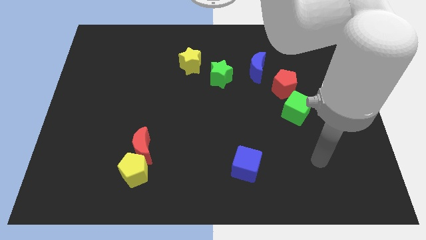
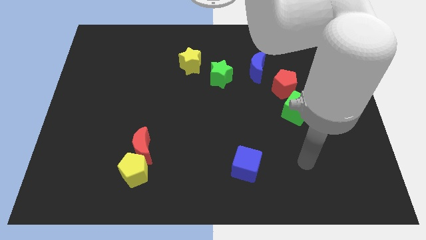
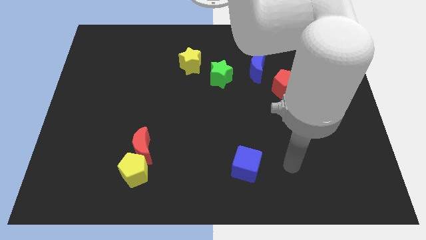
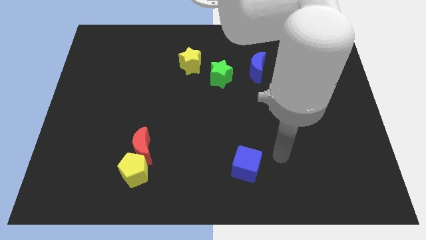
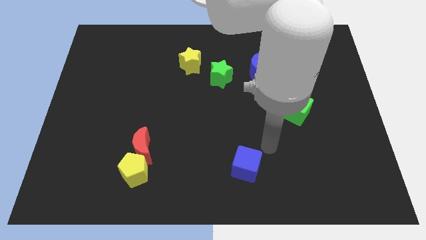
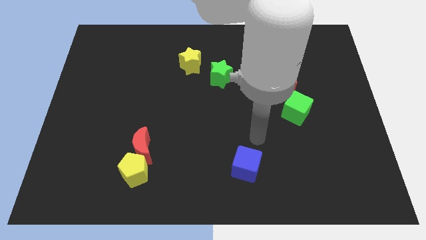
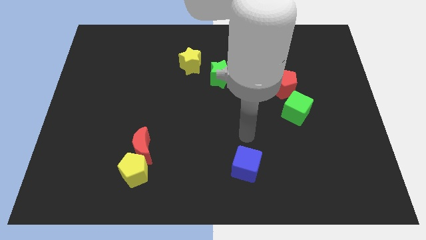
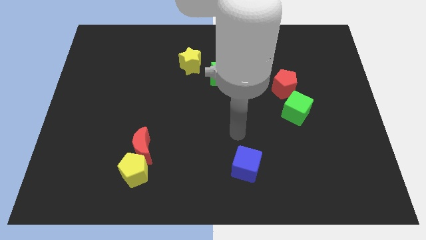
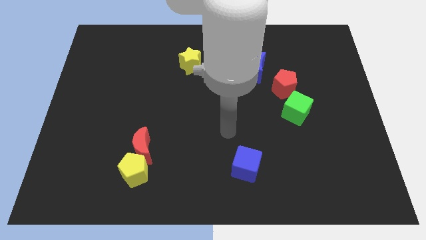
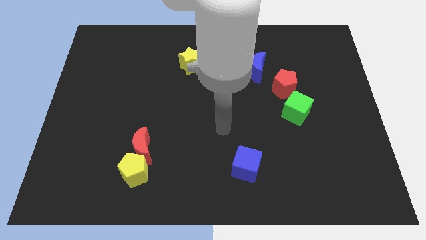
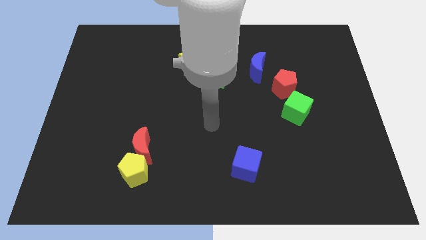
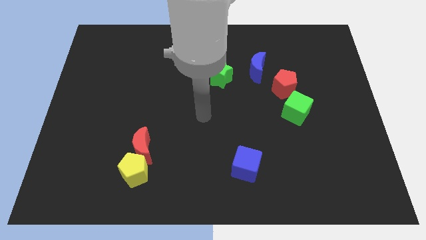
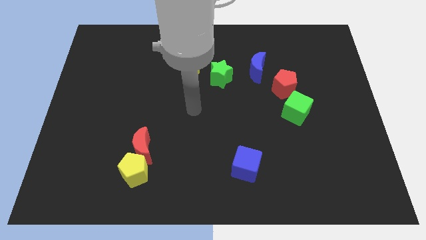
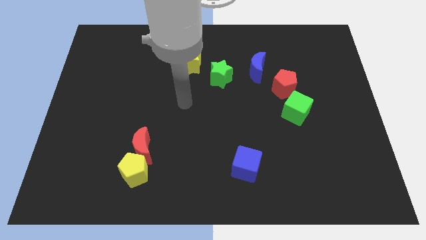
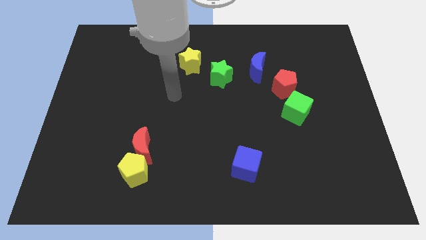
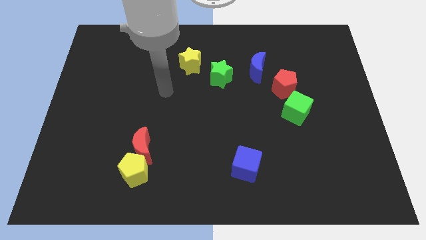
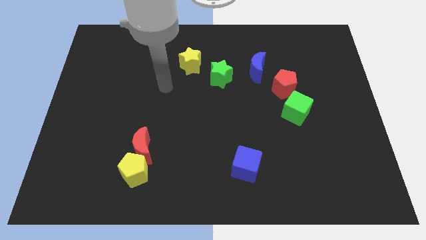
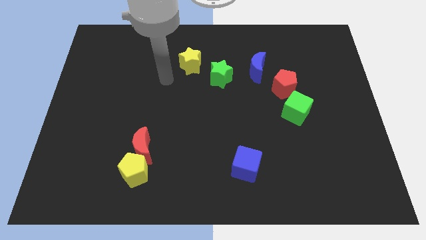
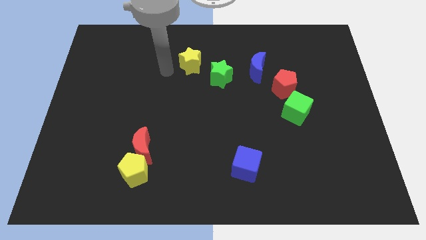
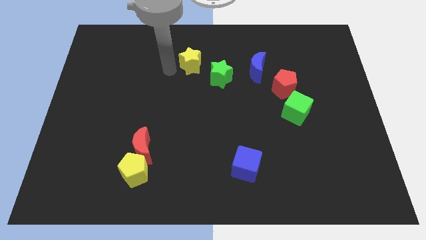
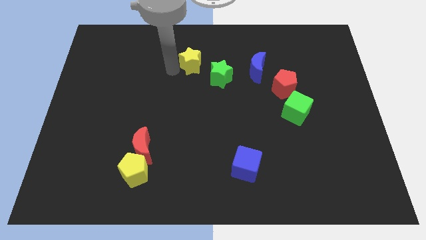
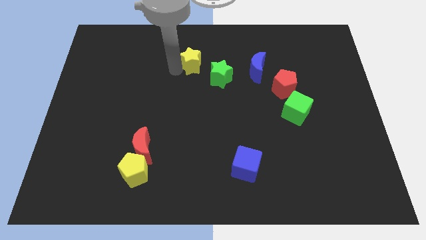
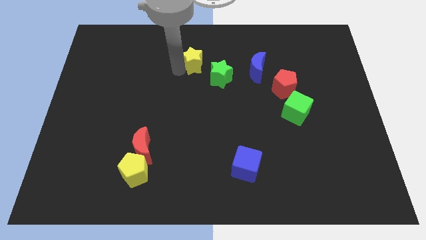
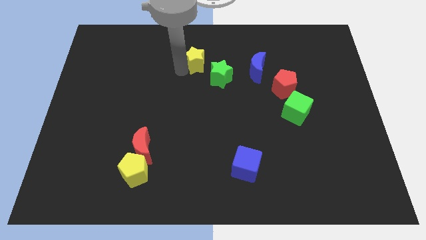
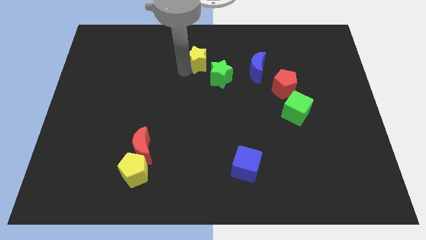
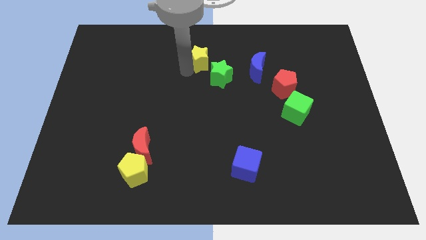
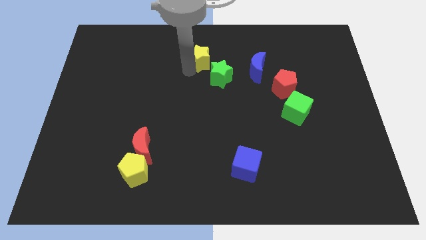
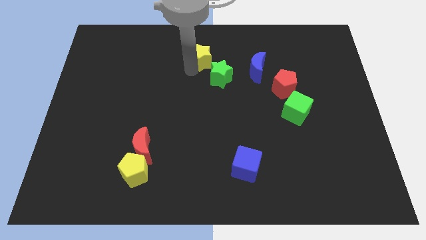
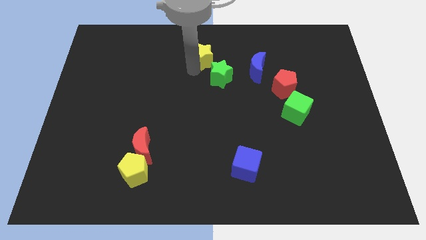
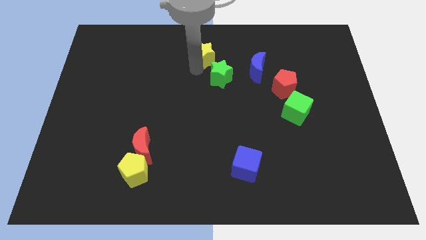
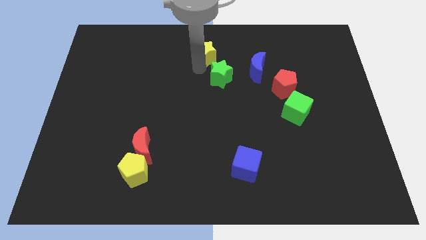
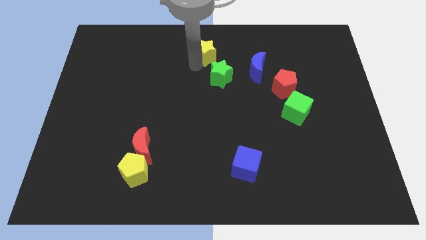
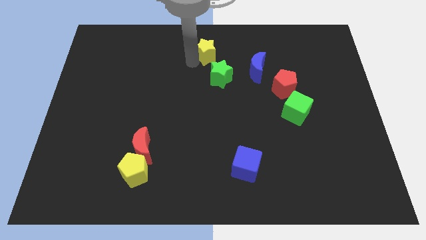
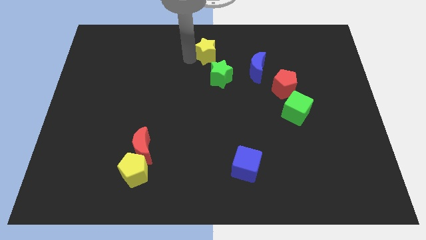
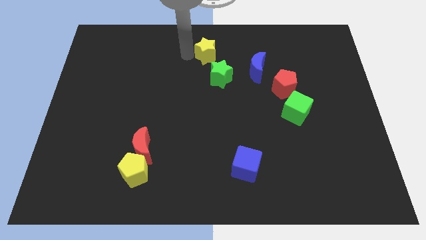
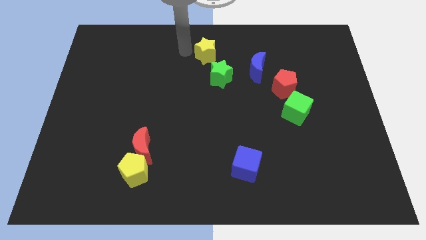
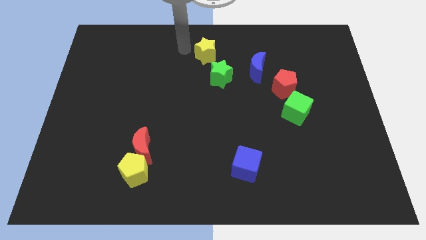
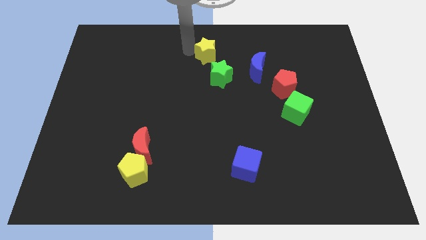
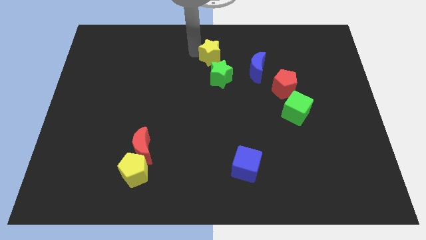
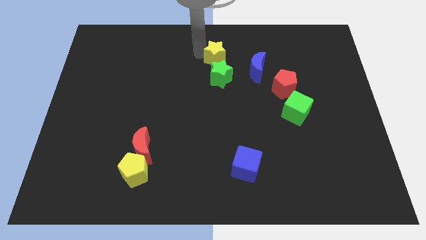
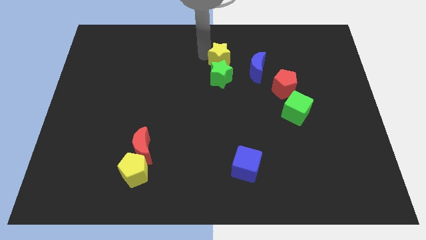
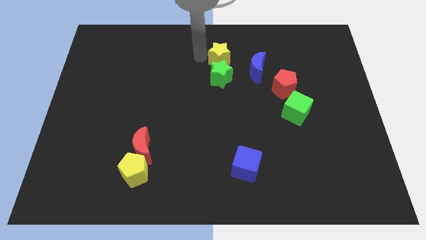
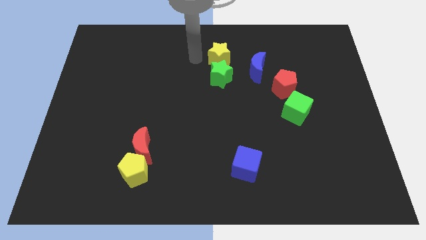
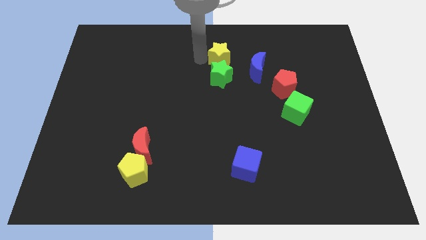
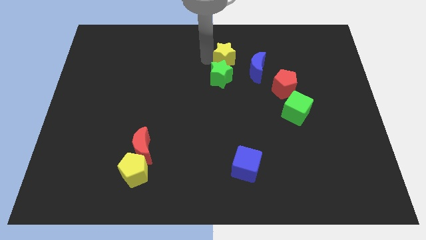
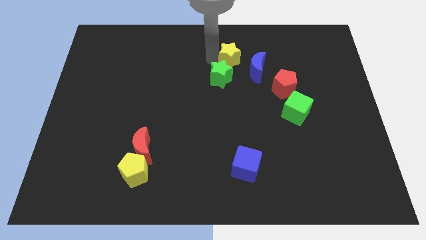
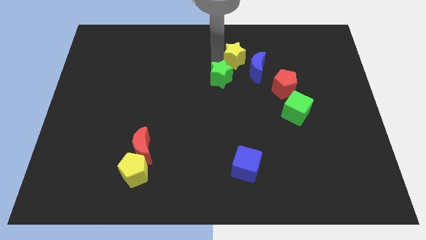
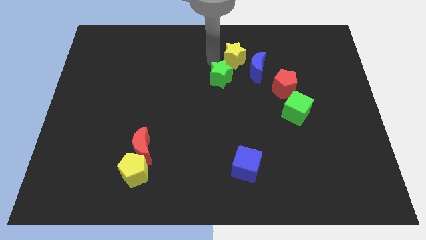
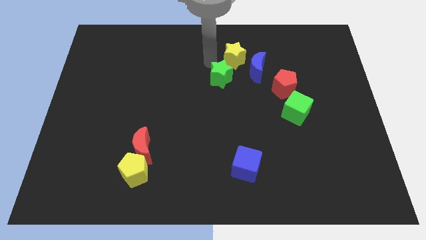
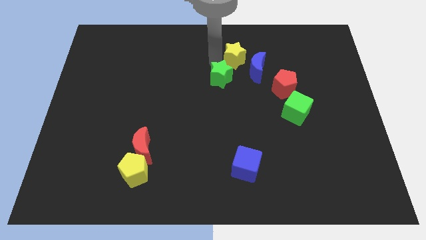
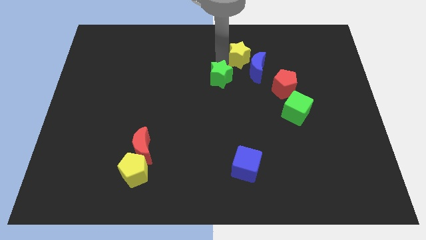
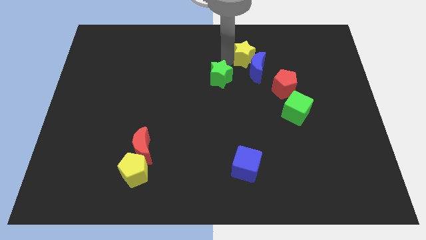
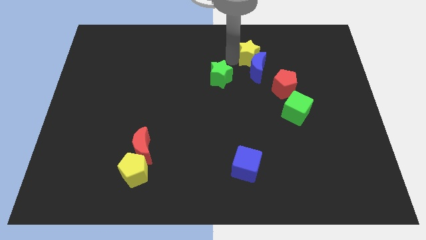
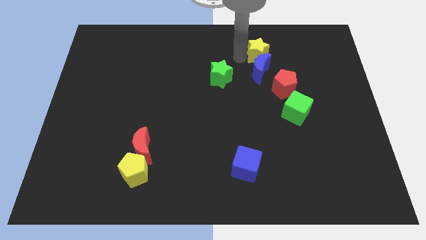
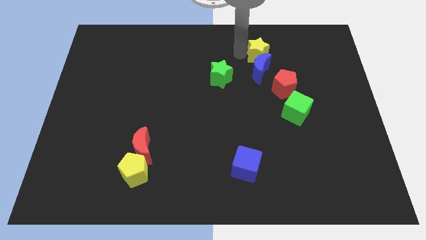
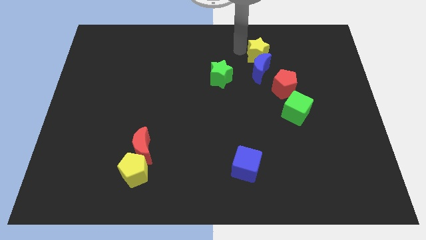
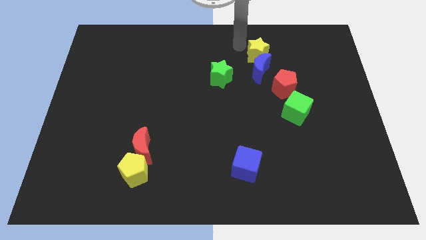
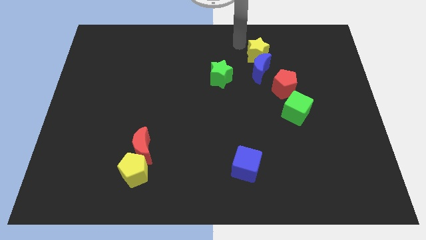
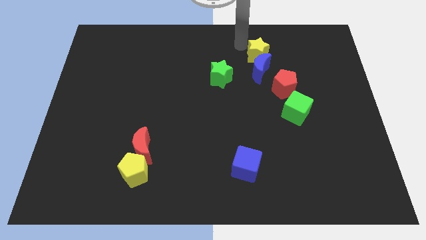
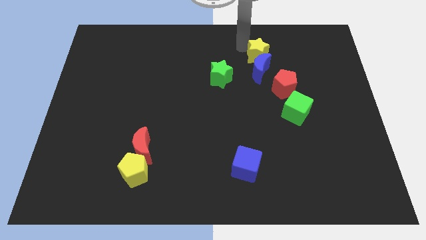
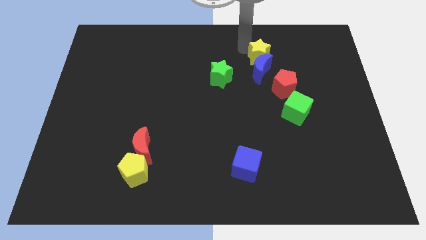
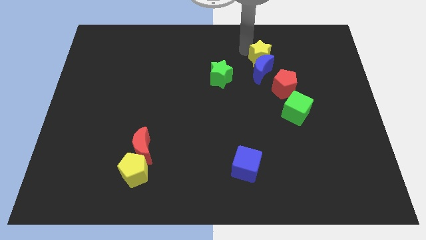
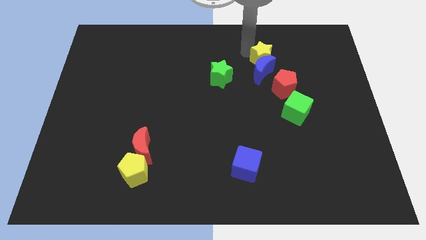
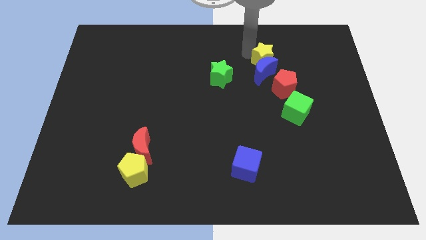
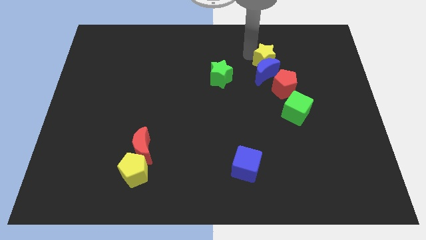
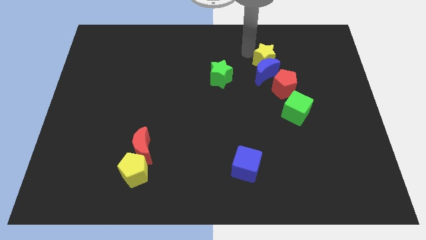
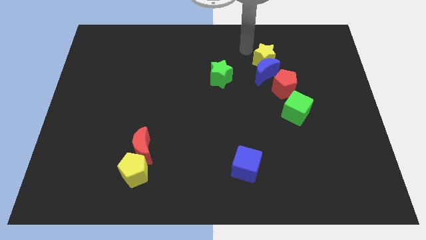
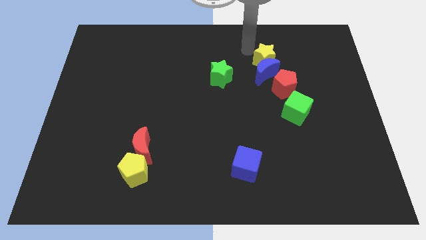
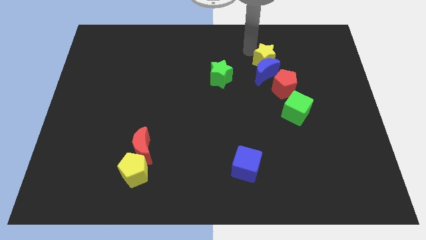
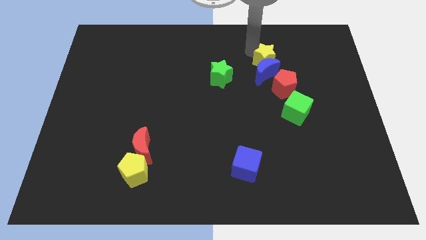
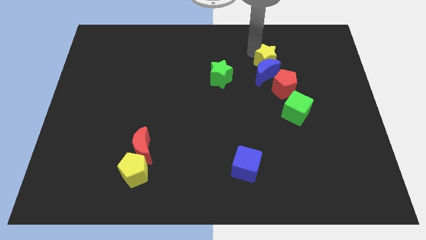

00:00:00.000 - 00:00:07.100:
slide the yellow star right

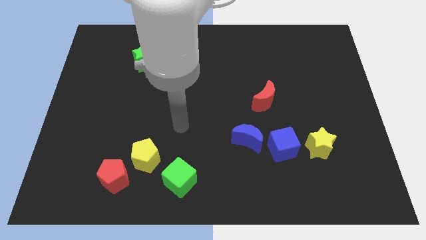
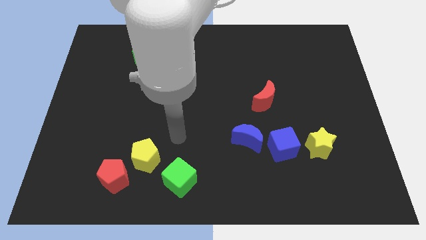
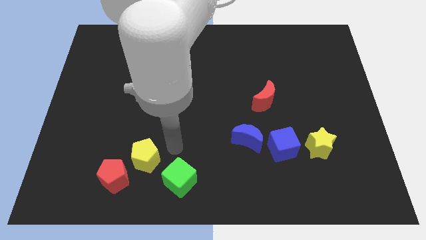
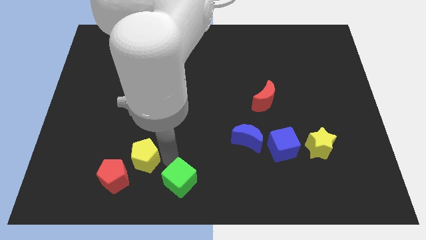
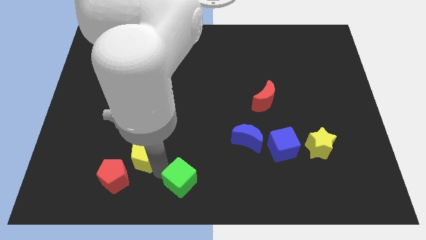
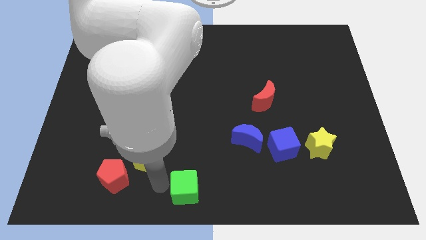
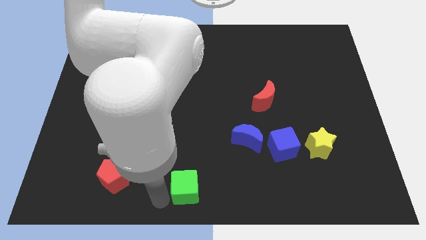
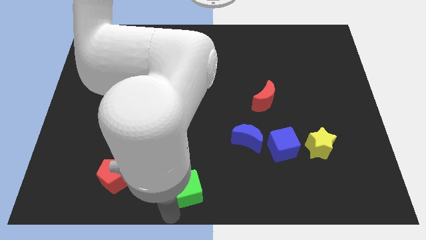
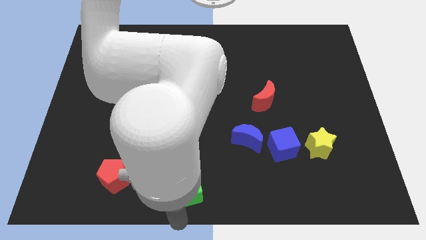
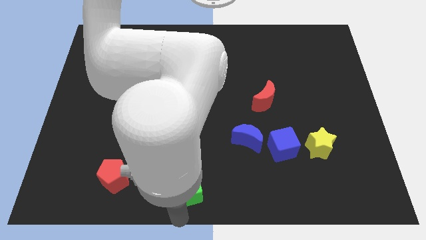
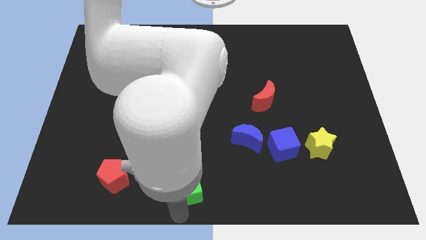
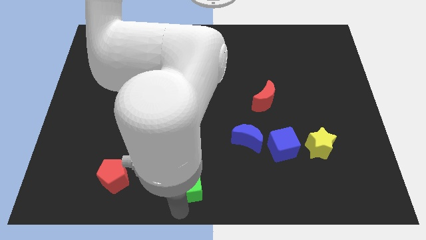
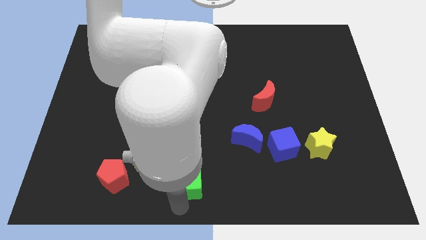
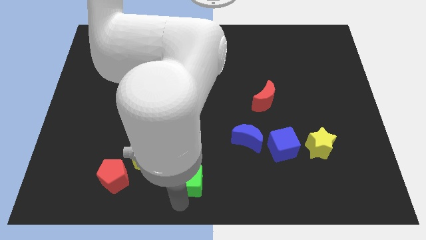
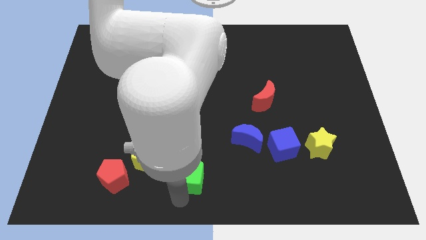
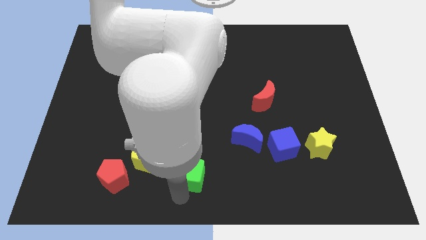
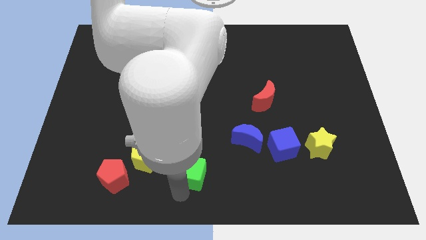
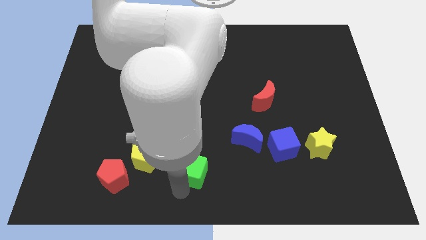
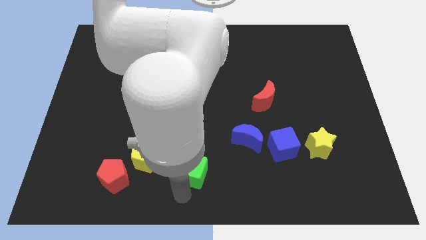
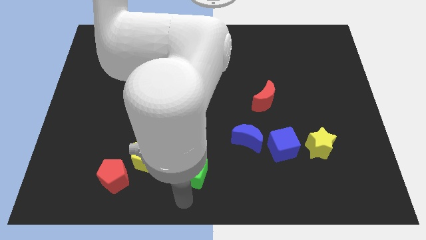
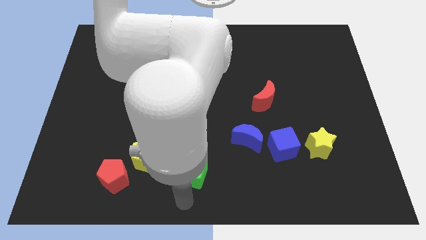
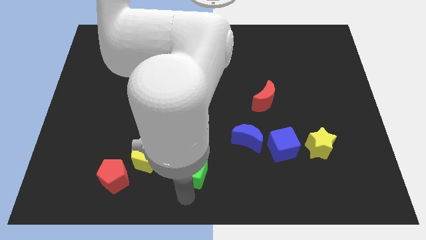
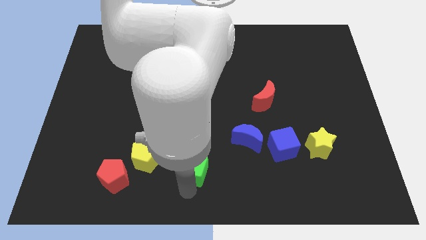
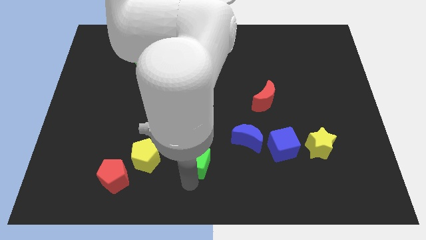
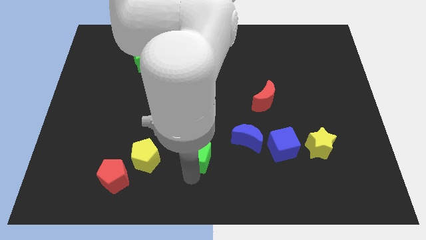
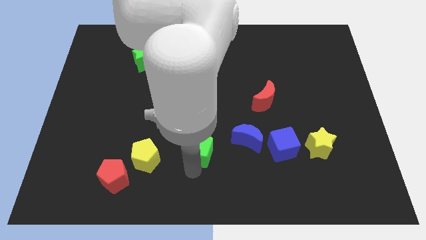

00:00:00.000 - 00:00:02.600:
slide the green cube up and to the right diagonally slightly
